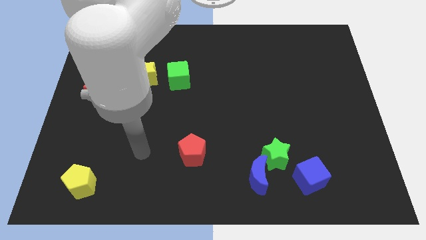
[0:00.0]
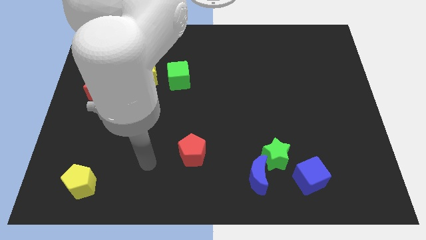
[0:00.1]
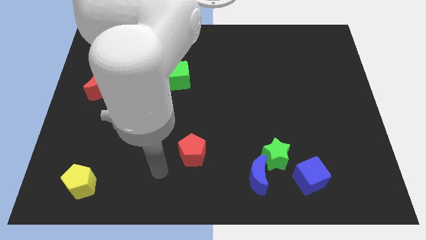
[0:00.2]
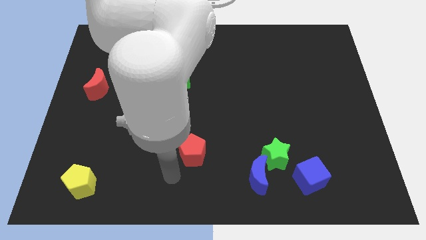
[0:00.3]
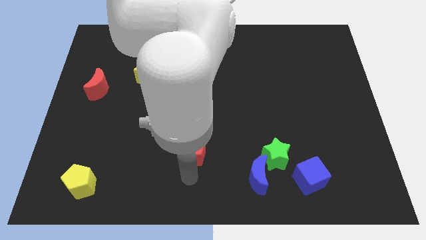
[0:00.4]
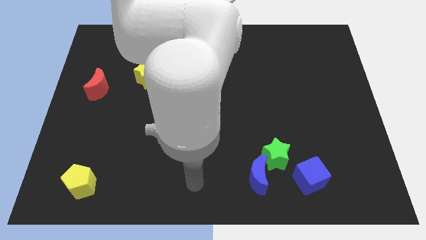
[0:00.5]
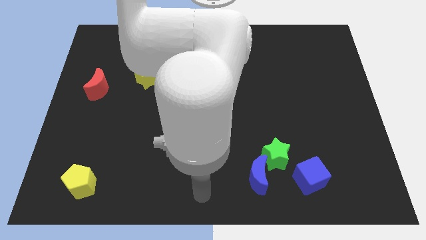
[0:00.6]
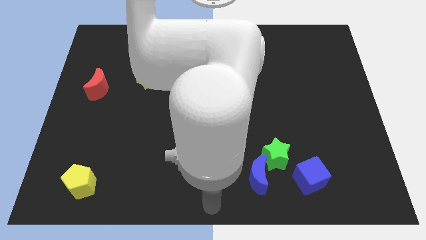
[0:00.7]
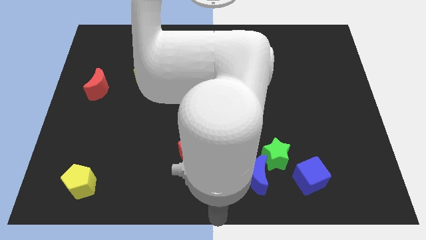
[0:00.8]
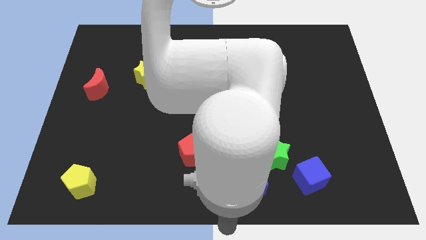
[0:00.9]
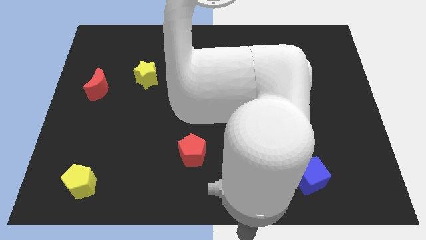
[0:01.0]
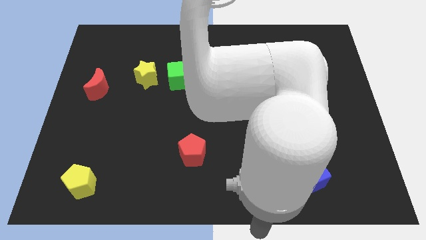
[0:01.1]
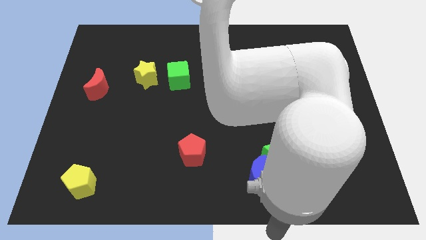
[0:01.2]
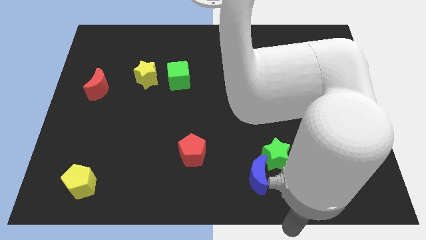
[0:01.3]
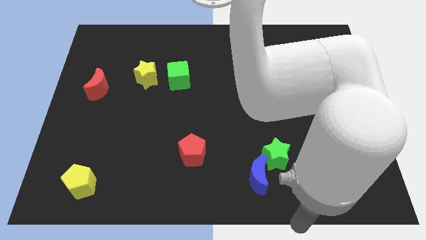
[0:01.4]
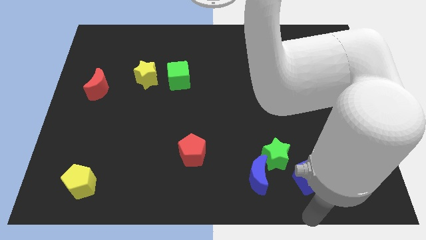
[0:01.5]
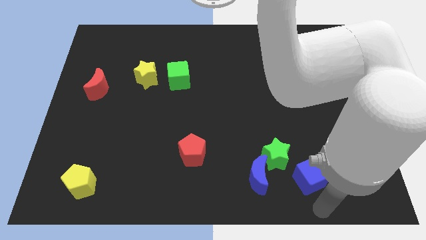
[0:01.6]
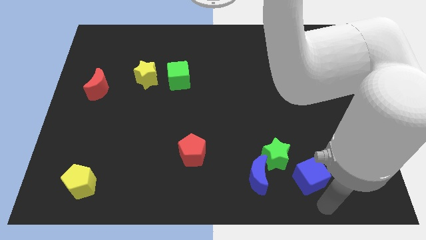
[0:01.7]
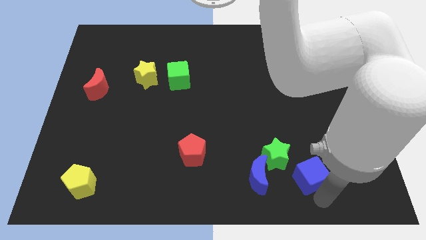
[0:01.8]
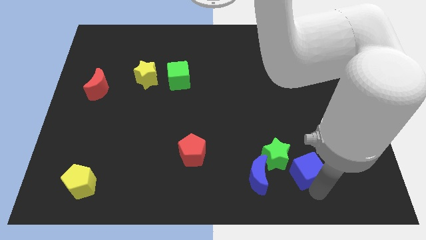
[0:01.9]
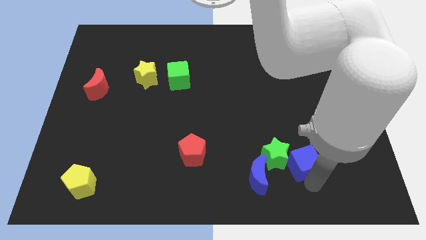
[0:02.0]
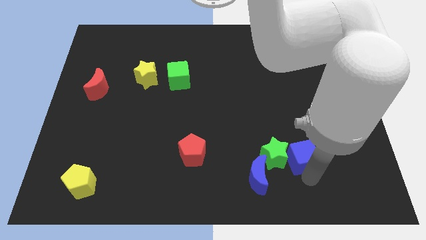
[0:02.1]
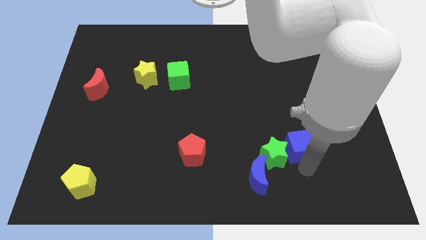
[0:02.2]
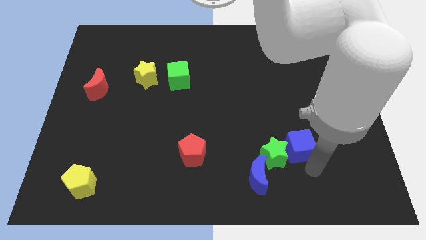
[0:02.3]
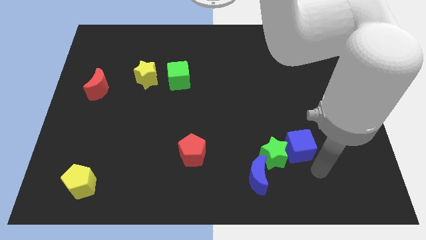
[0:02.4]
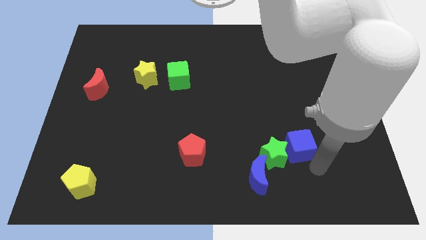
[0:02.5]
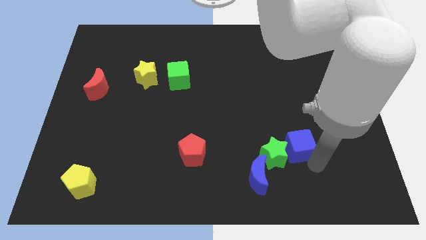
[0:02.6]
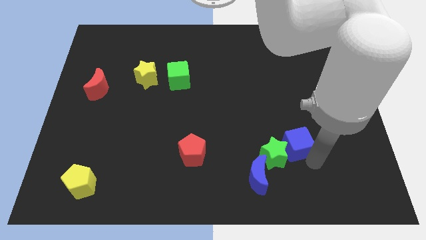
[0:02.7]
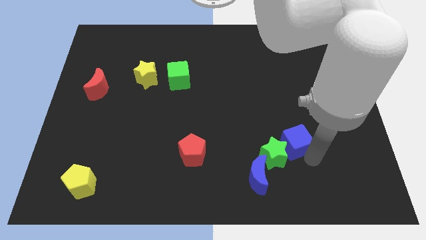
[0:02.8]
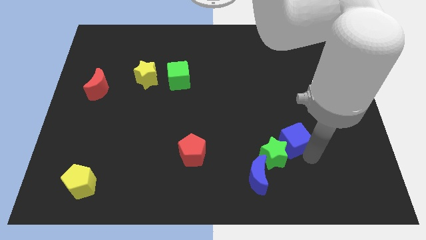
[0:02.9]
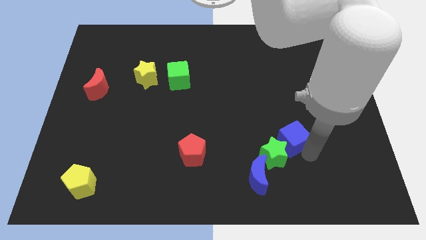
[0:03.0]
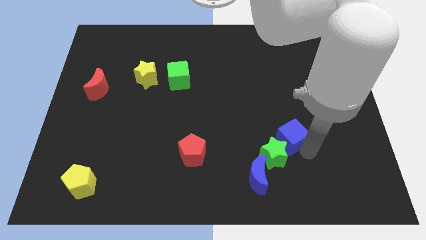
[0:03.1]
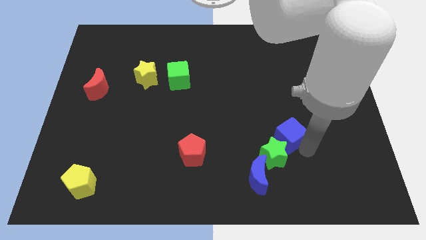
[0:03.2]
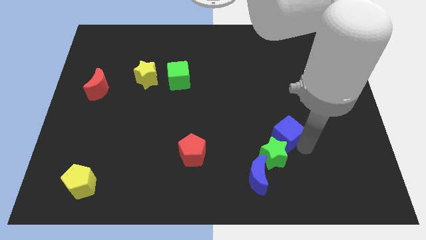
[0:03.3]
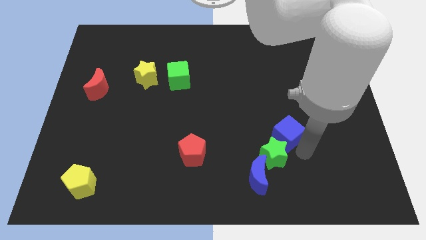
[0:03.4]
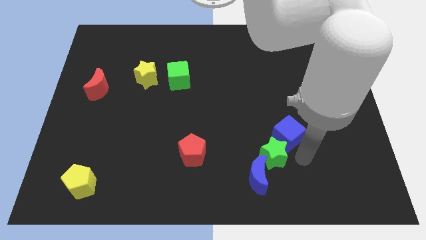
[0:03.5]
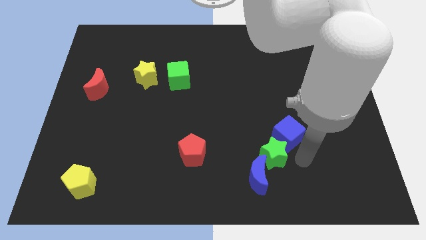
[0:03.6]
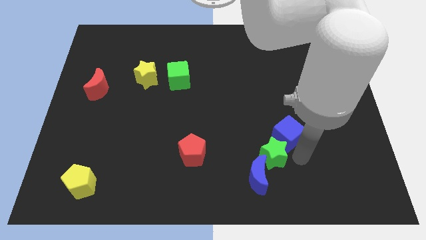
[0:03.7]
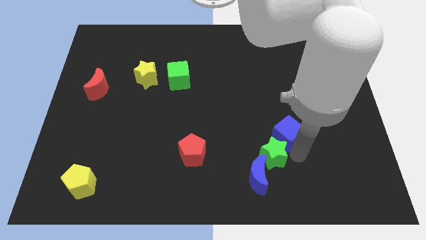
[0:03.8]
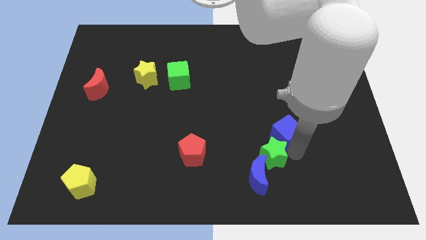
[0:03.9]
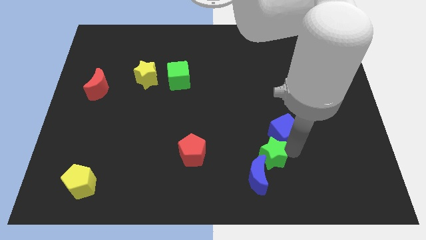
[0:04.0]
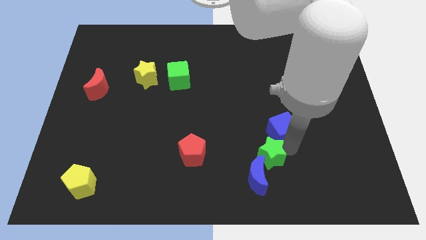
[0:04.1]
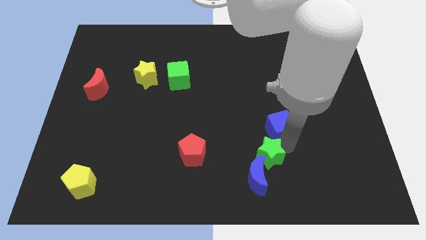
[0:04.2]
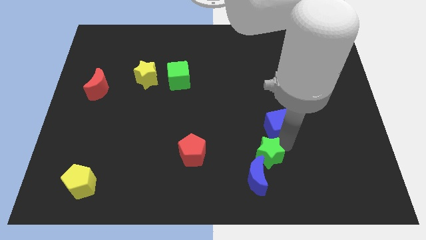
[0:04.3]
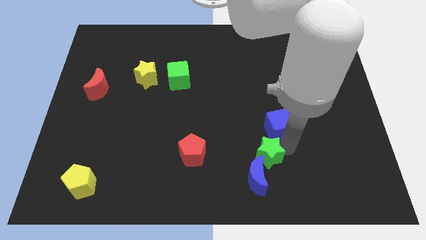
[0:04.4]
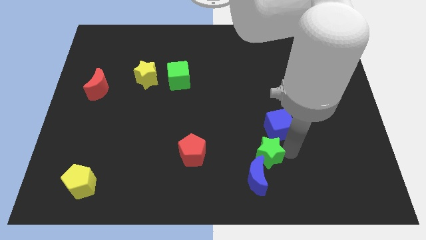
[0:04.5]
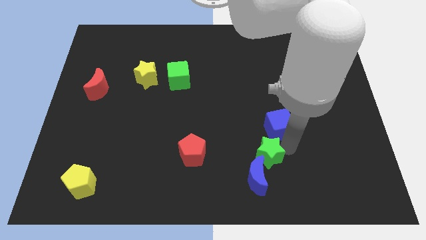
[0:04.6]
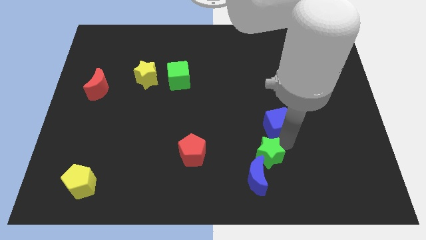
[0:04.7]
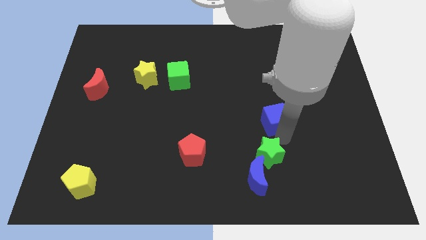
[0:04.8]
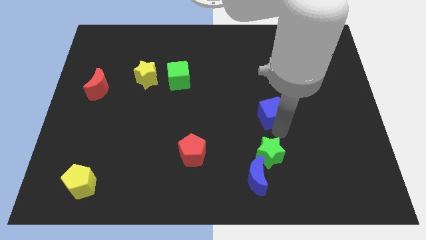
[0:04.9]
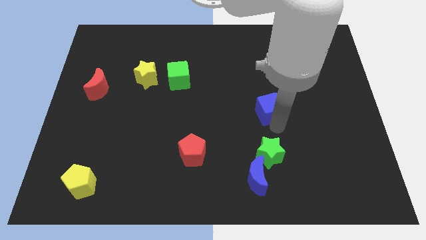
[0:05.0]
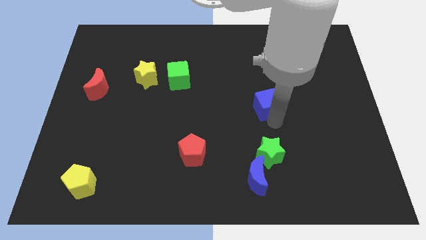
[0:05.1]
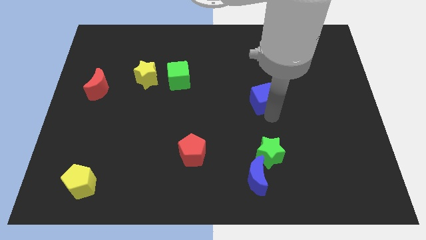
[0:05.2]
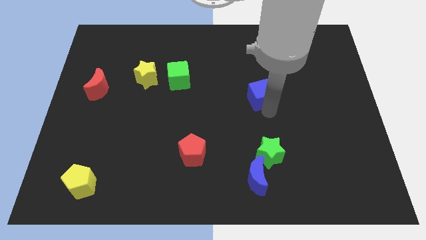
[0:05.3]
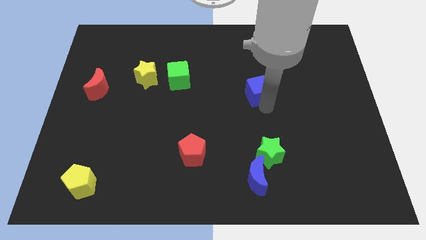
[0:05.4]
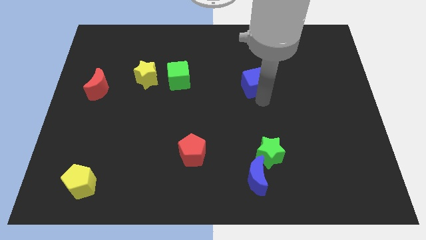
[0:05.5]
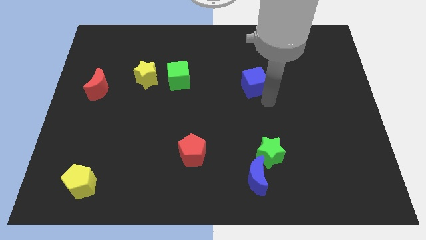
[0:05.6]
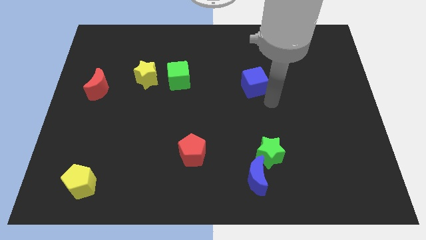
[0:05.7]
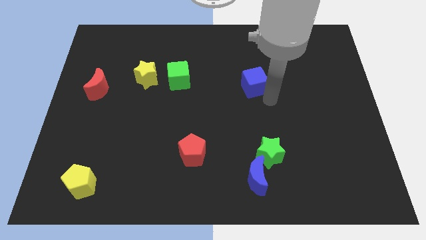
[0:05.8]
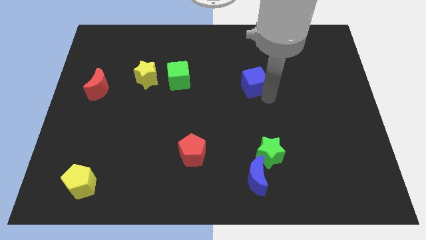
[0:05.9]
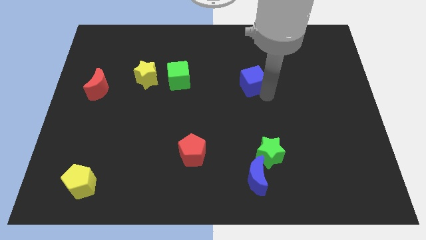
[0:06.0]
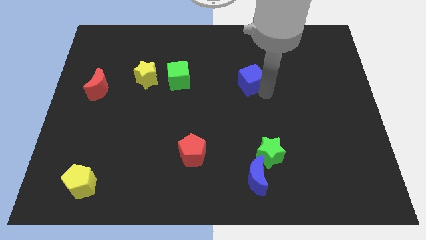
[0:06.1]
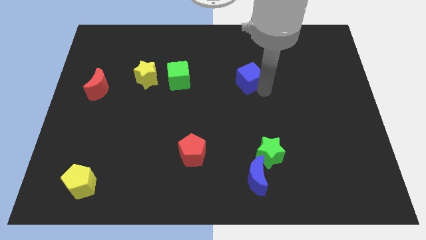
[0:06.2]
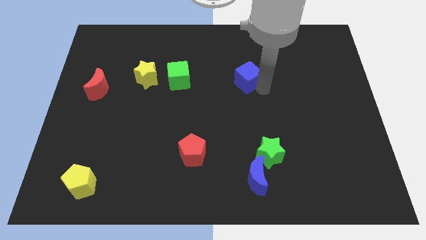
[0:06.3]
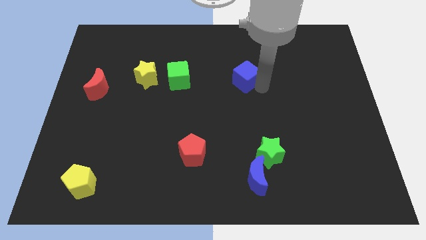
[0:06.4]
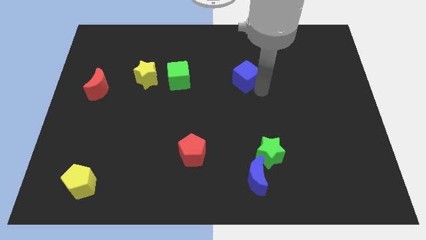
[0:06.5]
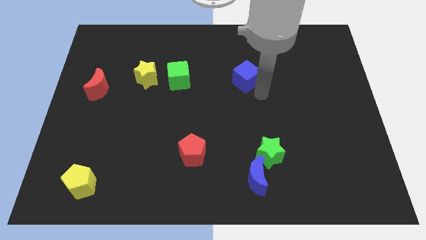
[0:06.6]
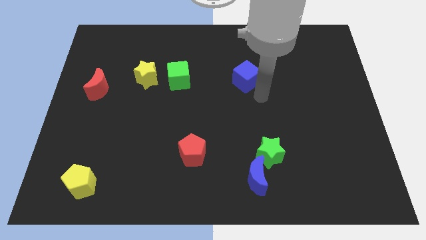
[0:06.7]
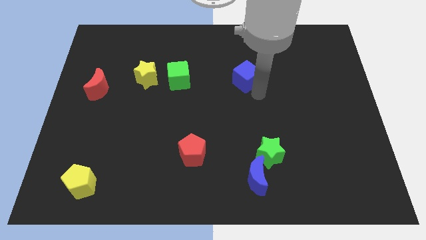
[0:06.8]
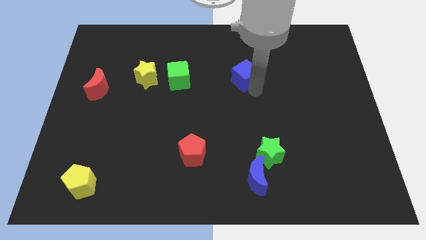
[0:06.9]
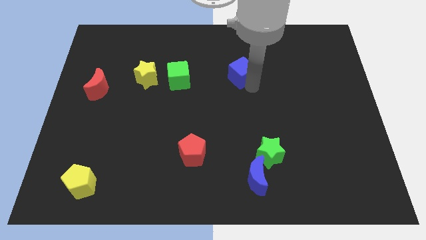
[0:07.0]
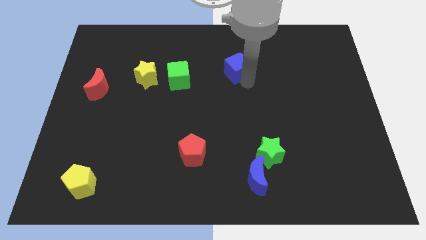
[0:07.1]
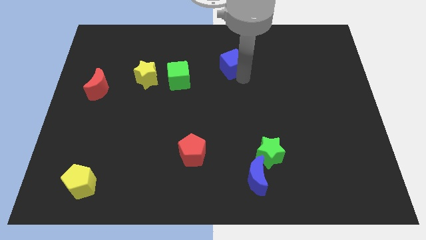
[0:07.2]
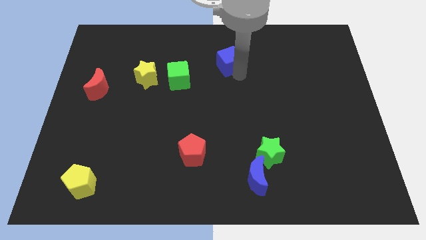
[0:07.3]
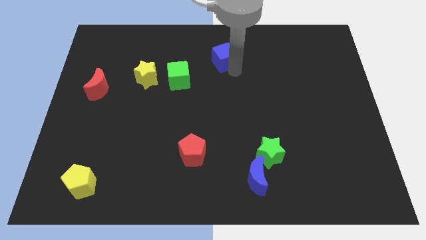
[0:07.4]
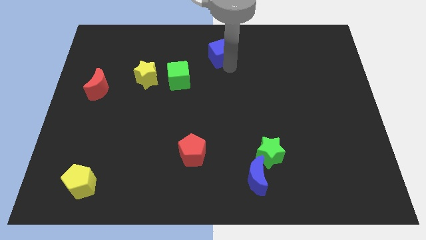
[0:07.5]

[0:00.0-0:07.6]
push the blue cube to the towards your base
